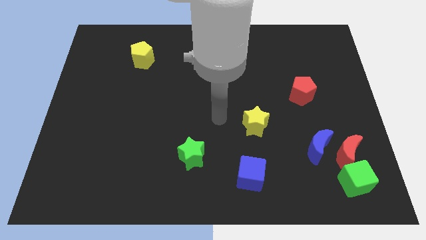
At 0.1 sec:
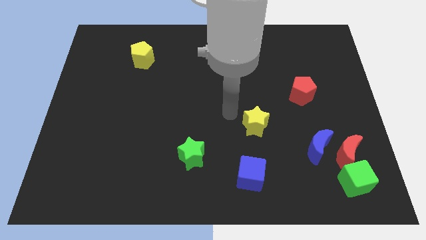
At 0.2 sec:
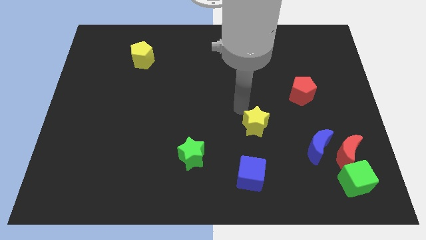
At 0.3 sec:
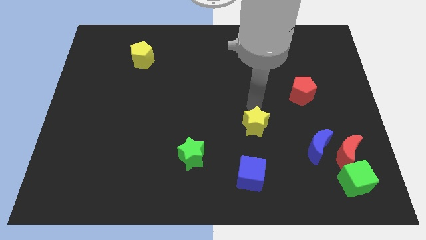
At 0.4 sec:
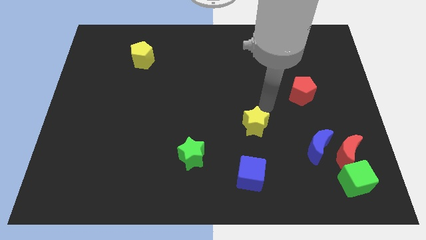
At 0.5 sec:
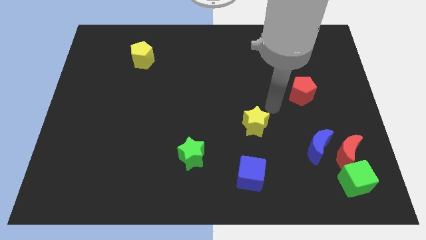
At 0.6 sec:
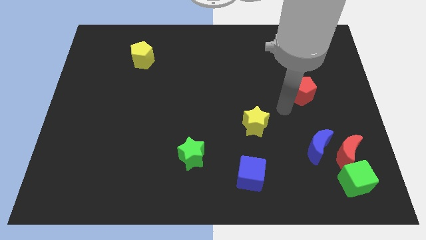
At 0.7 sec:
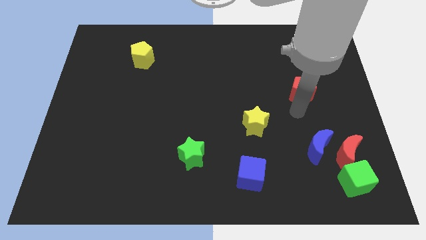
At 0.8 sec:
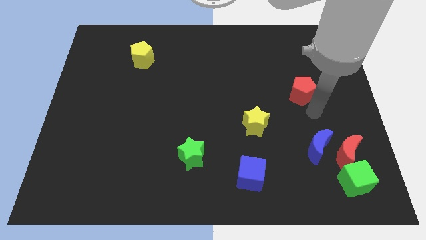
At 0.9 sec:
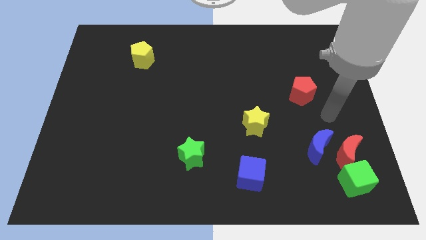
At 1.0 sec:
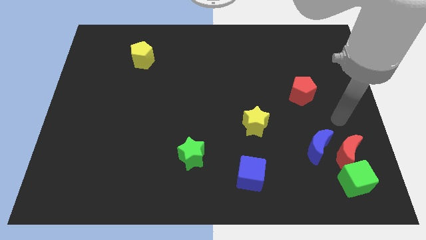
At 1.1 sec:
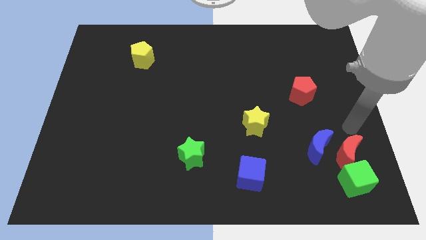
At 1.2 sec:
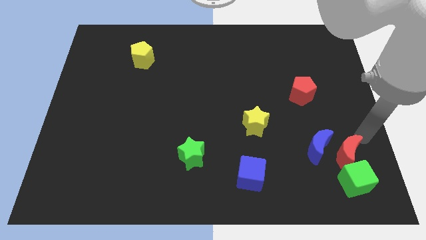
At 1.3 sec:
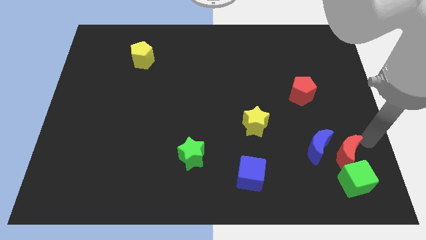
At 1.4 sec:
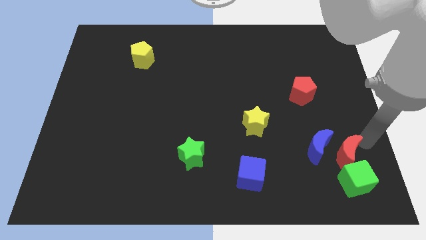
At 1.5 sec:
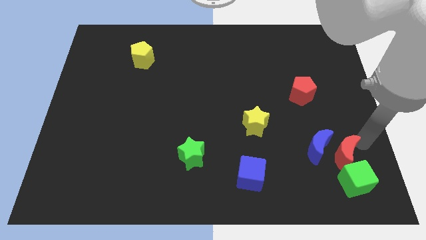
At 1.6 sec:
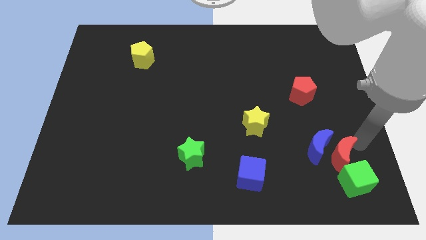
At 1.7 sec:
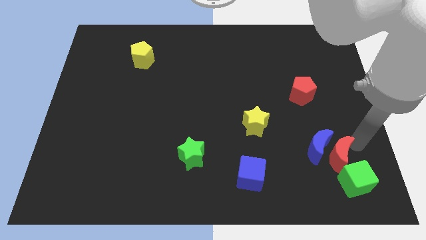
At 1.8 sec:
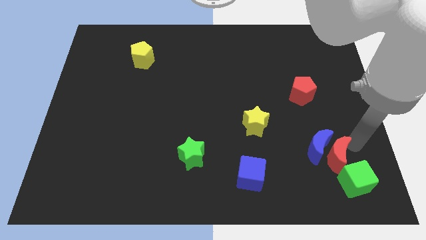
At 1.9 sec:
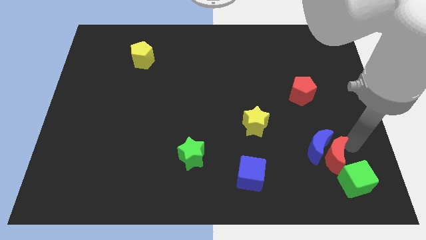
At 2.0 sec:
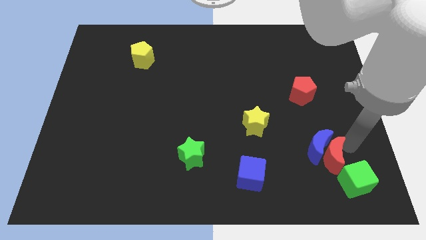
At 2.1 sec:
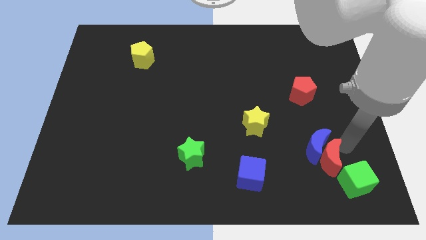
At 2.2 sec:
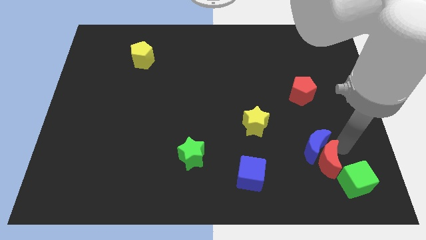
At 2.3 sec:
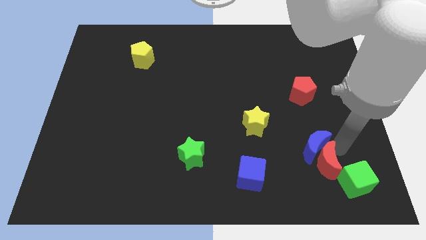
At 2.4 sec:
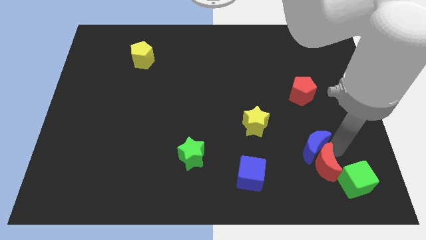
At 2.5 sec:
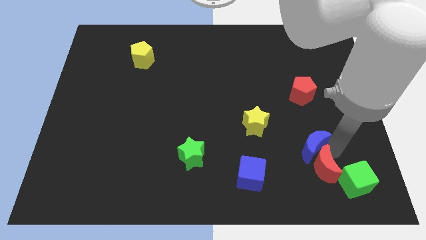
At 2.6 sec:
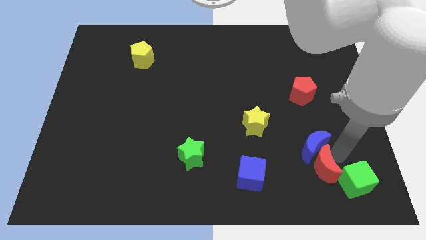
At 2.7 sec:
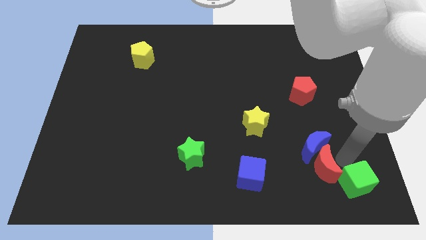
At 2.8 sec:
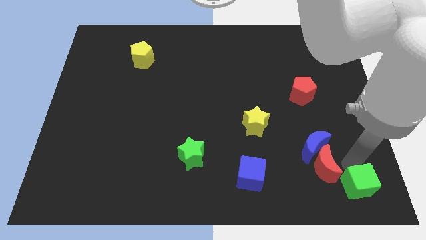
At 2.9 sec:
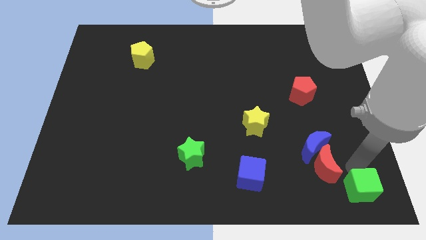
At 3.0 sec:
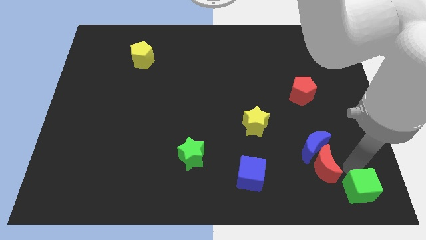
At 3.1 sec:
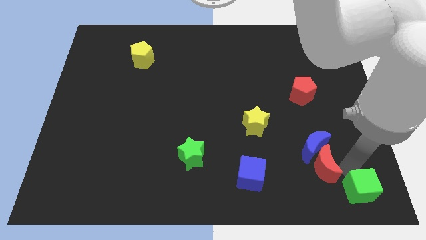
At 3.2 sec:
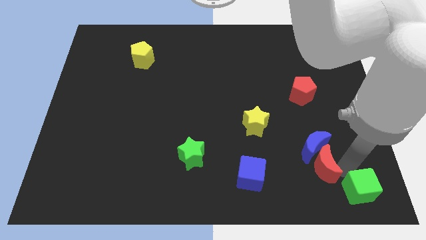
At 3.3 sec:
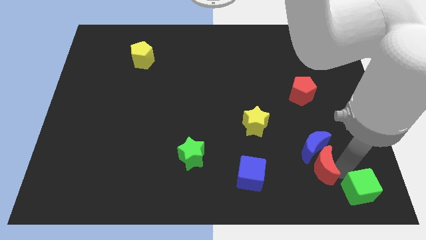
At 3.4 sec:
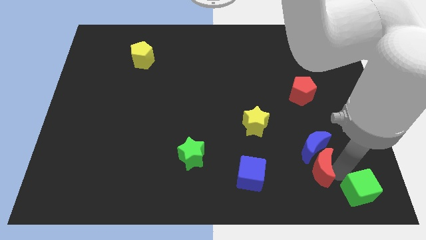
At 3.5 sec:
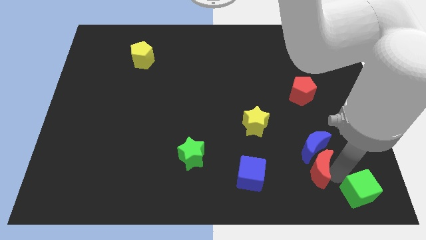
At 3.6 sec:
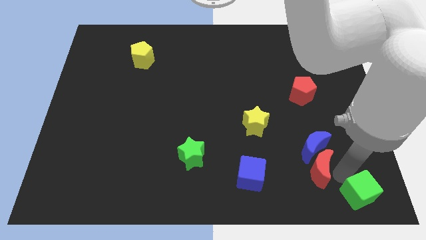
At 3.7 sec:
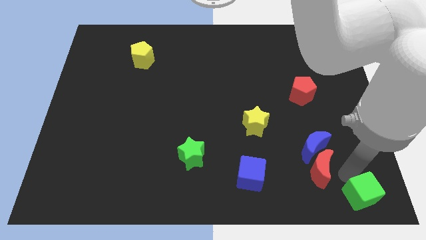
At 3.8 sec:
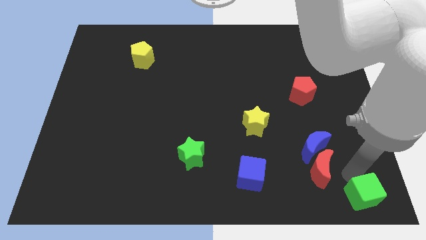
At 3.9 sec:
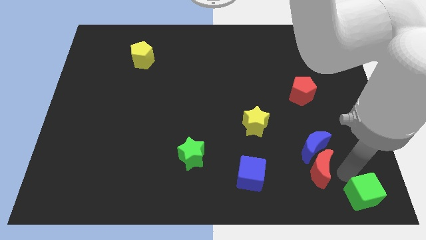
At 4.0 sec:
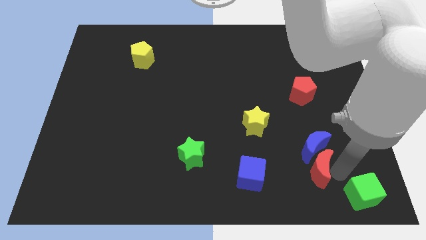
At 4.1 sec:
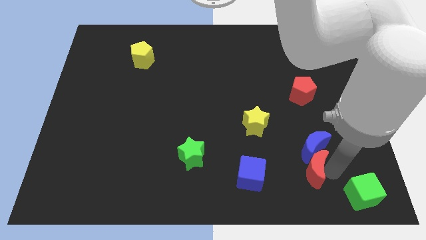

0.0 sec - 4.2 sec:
push the red moon left a little bit

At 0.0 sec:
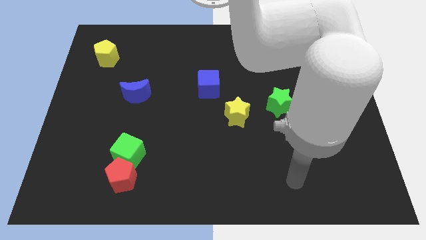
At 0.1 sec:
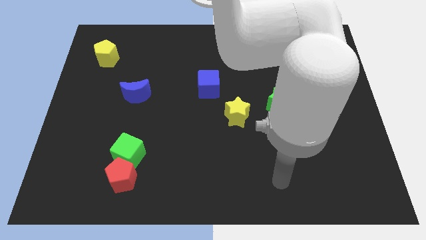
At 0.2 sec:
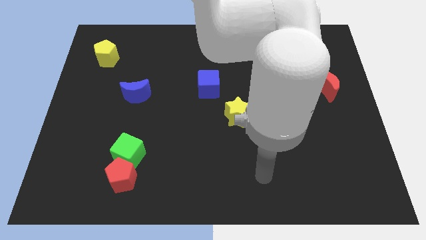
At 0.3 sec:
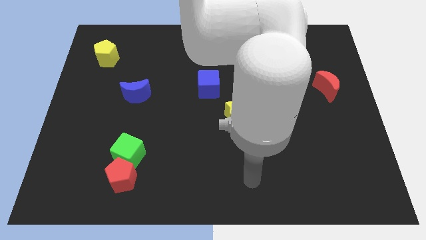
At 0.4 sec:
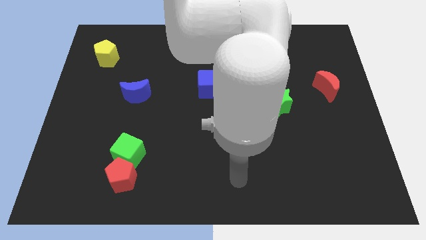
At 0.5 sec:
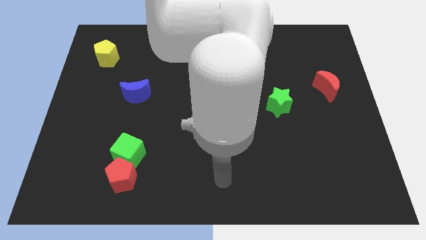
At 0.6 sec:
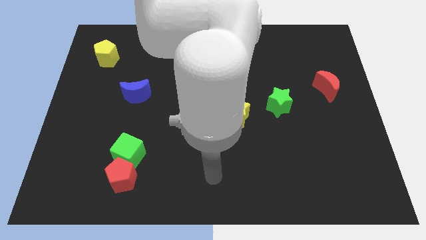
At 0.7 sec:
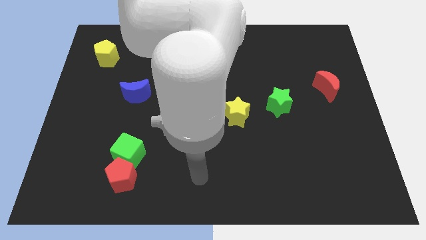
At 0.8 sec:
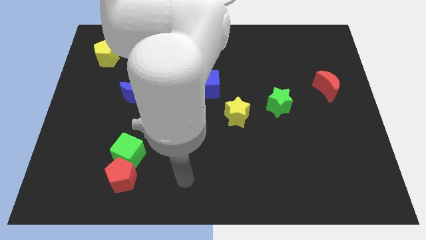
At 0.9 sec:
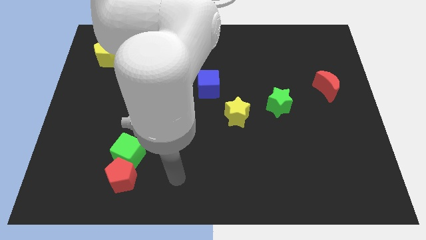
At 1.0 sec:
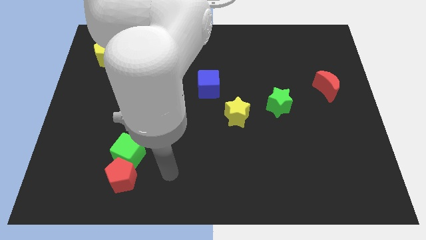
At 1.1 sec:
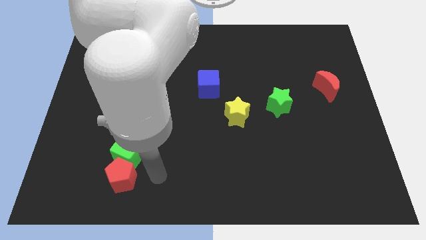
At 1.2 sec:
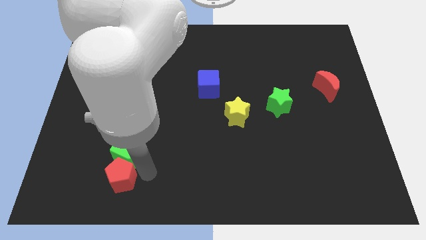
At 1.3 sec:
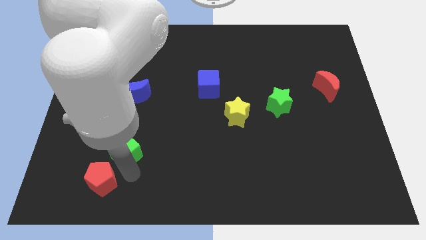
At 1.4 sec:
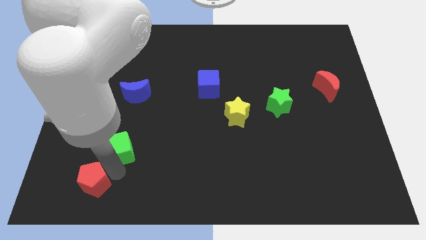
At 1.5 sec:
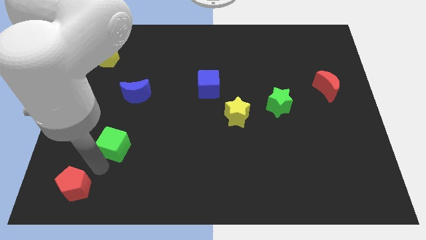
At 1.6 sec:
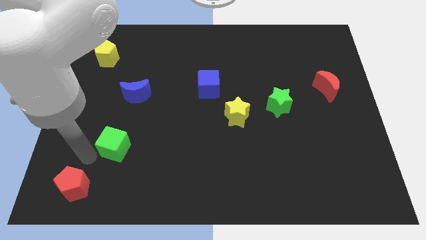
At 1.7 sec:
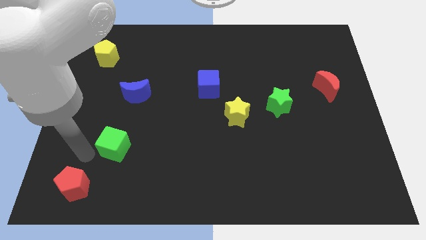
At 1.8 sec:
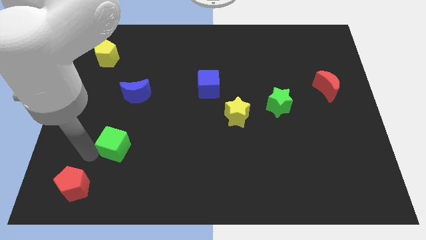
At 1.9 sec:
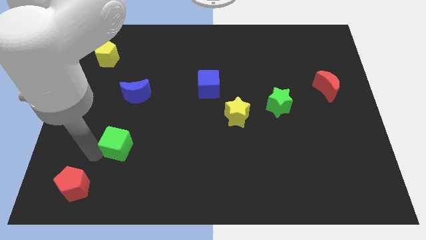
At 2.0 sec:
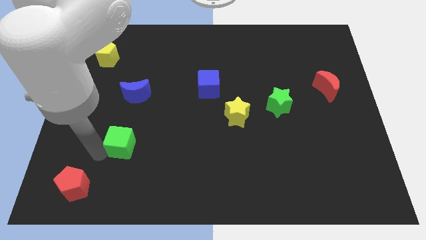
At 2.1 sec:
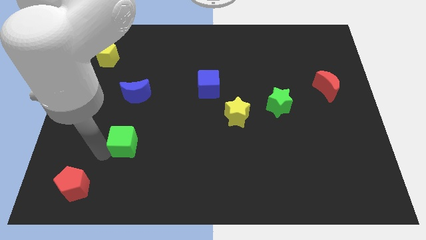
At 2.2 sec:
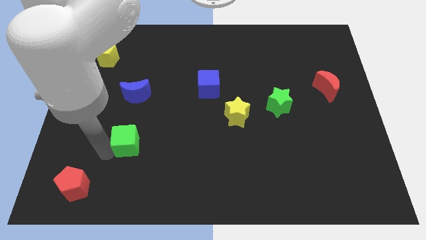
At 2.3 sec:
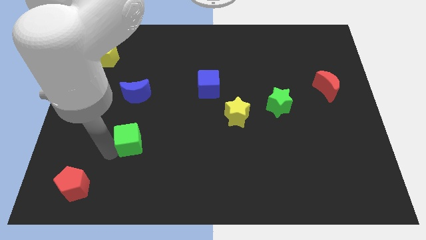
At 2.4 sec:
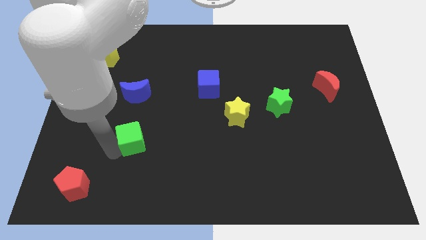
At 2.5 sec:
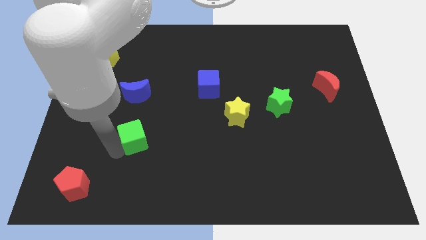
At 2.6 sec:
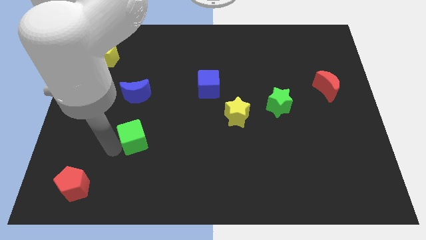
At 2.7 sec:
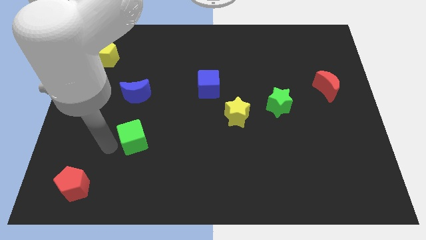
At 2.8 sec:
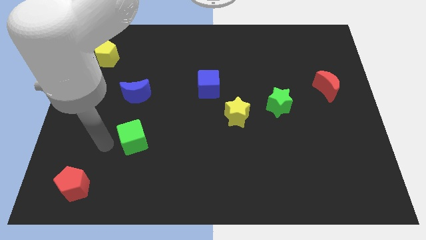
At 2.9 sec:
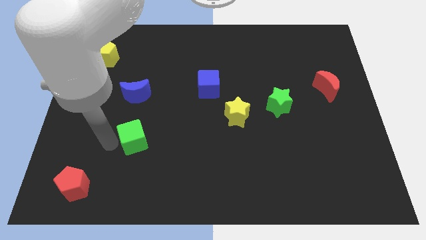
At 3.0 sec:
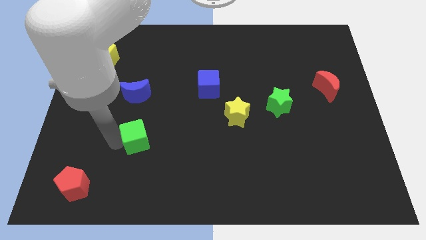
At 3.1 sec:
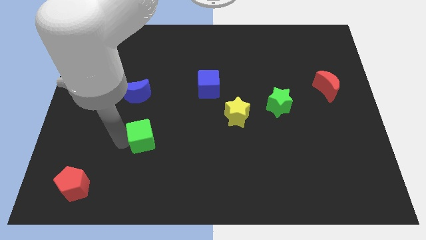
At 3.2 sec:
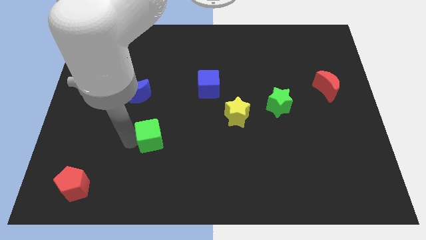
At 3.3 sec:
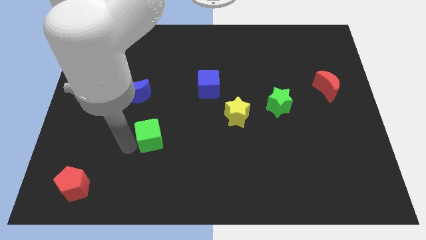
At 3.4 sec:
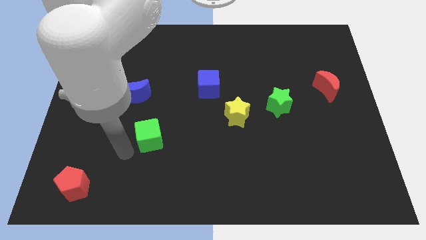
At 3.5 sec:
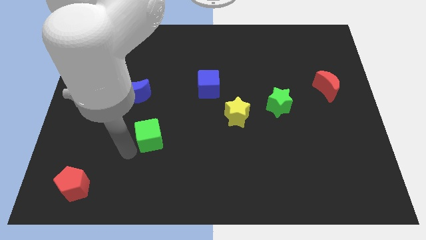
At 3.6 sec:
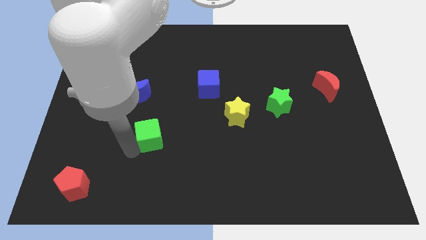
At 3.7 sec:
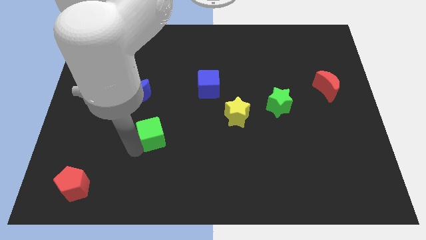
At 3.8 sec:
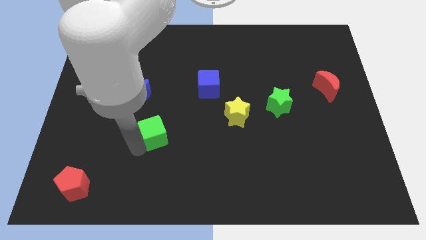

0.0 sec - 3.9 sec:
push the green cube a bit up and right diagonally

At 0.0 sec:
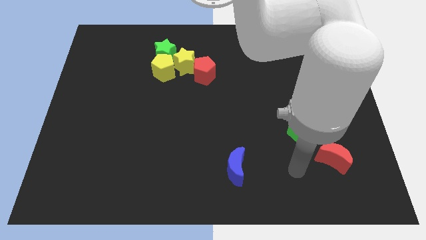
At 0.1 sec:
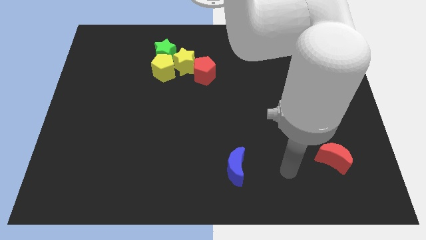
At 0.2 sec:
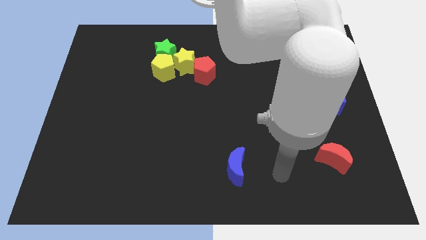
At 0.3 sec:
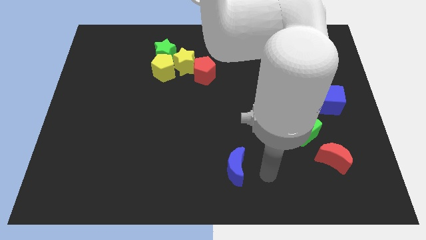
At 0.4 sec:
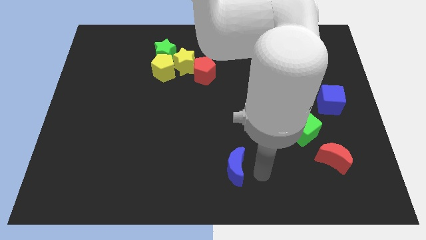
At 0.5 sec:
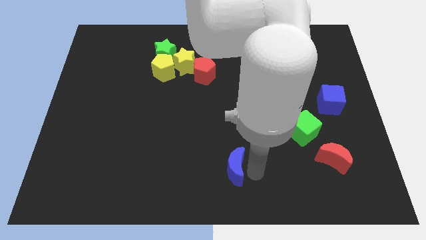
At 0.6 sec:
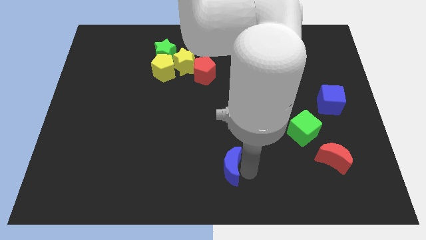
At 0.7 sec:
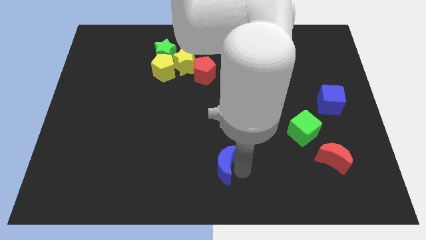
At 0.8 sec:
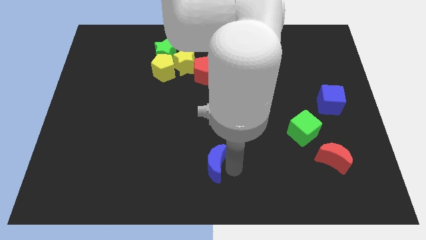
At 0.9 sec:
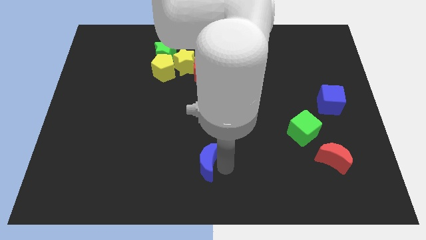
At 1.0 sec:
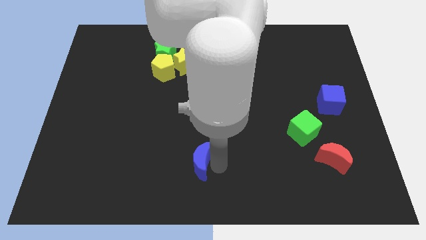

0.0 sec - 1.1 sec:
slightly move the blue moon left
